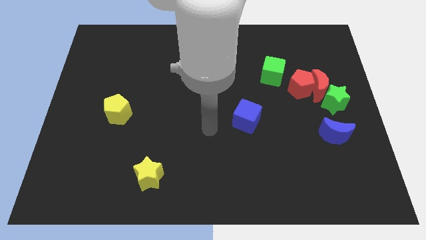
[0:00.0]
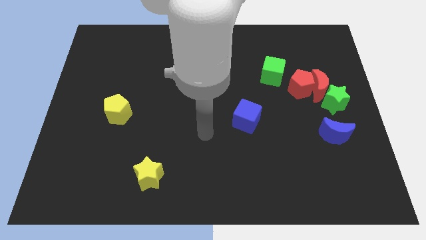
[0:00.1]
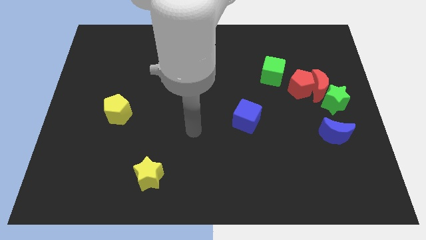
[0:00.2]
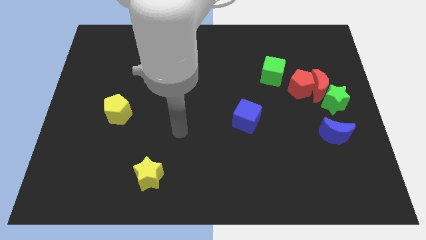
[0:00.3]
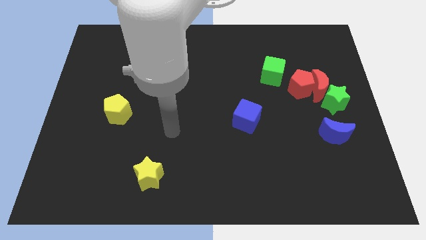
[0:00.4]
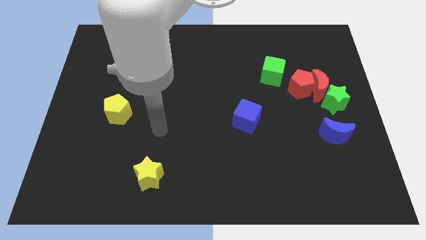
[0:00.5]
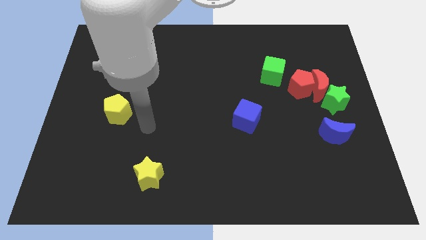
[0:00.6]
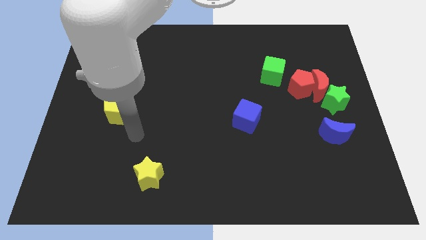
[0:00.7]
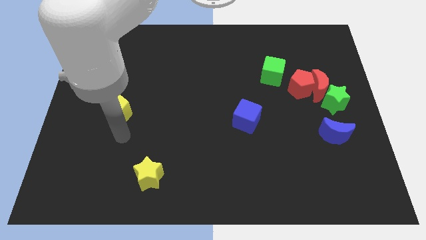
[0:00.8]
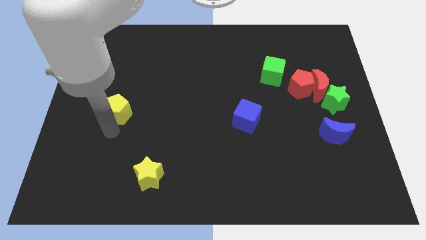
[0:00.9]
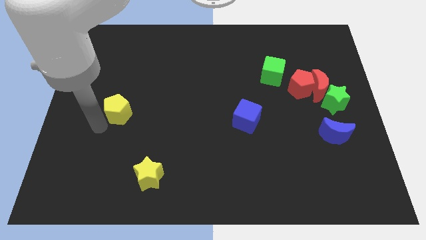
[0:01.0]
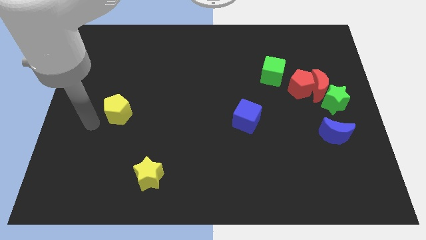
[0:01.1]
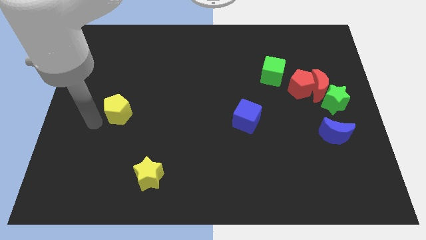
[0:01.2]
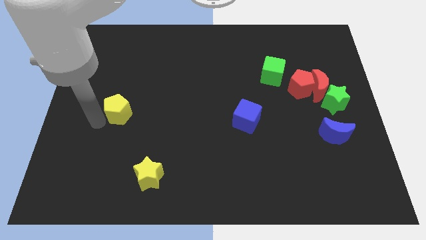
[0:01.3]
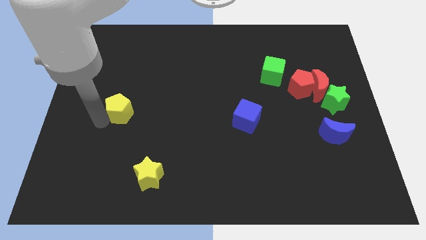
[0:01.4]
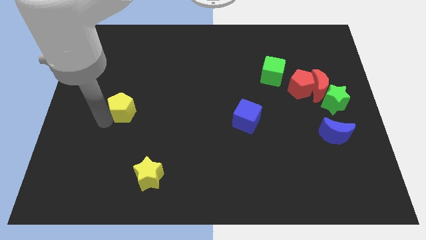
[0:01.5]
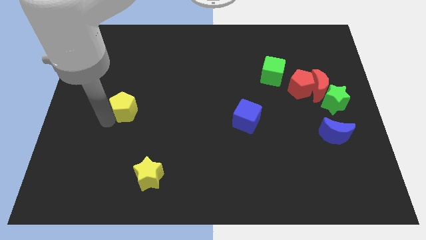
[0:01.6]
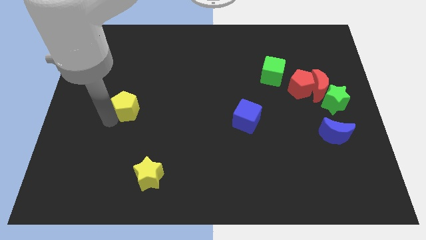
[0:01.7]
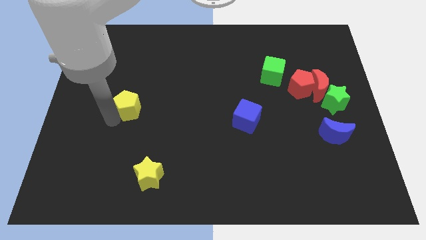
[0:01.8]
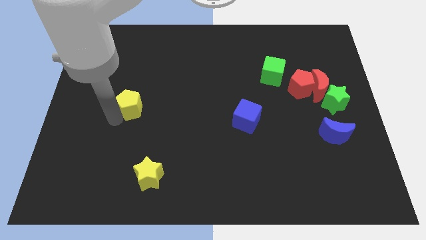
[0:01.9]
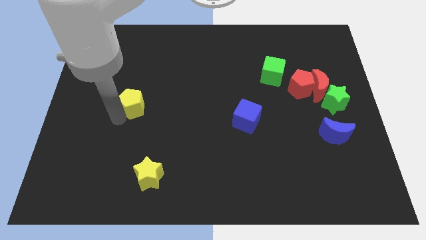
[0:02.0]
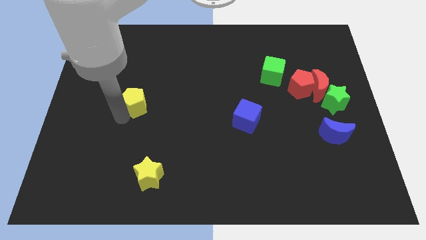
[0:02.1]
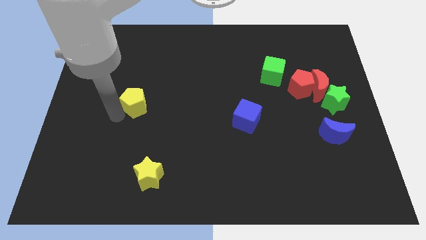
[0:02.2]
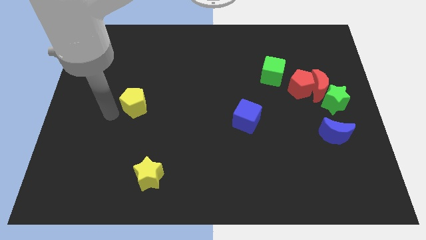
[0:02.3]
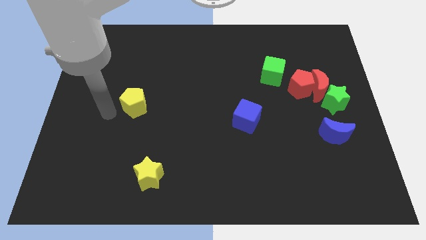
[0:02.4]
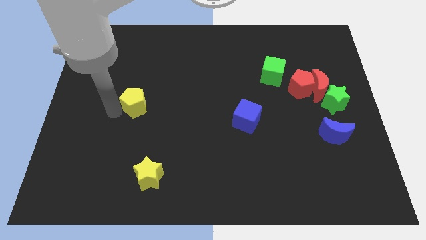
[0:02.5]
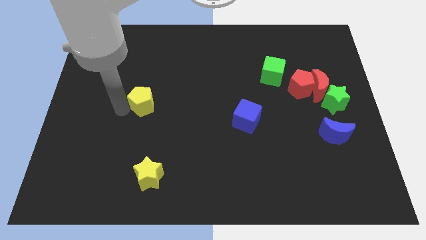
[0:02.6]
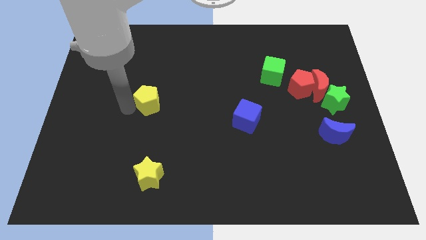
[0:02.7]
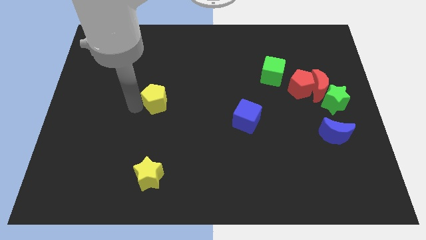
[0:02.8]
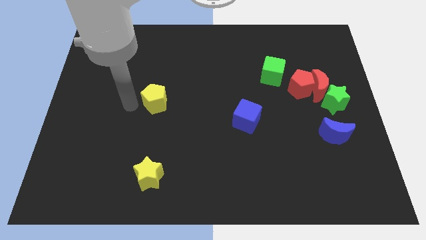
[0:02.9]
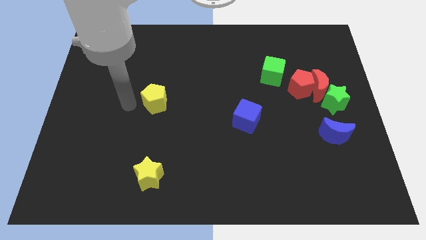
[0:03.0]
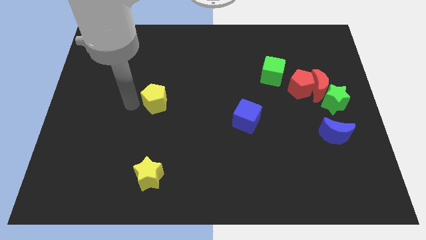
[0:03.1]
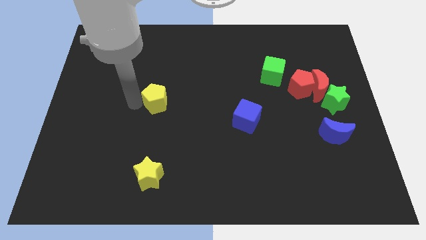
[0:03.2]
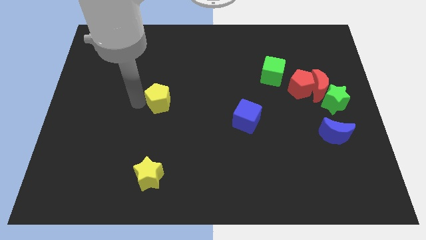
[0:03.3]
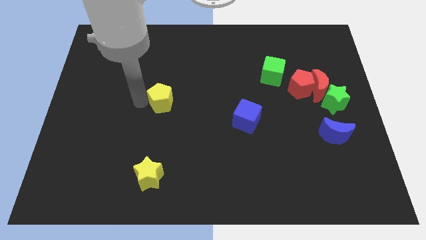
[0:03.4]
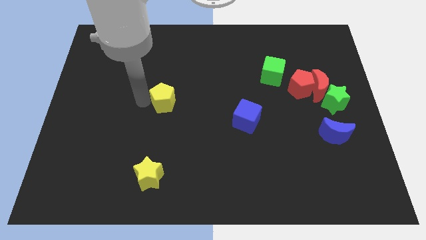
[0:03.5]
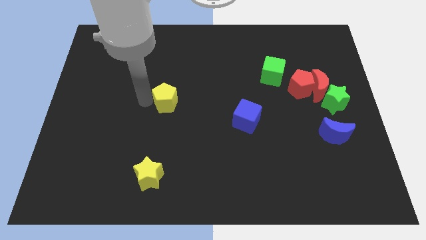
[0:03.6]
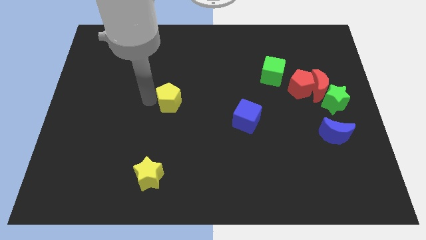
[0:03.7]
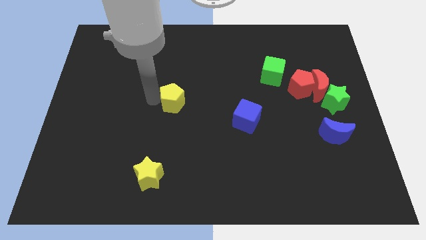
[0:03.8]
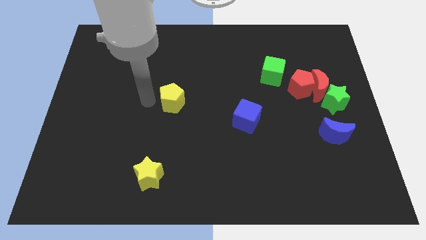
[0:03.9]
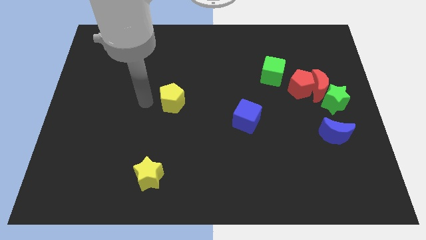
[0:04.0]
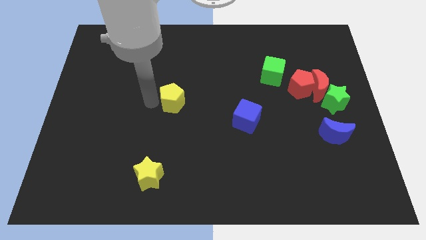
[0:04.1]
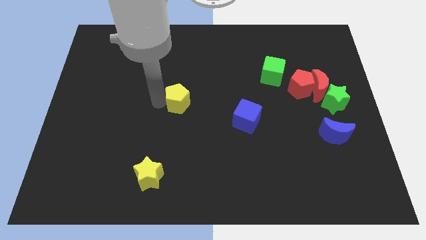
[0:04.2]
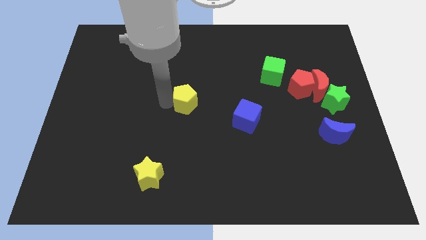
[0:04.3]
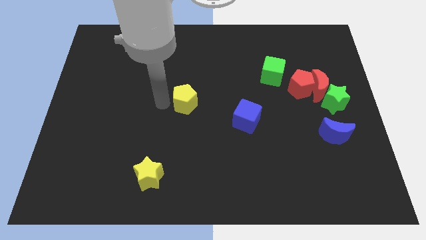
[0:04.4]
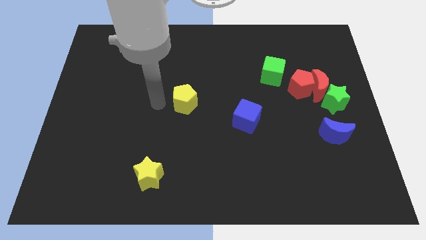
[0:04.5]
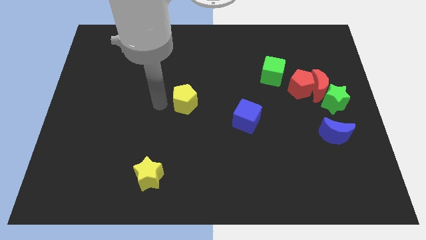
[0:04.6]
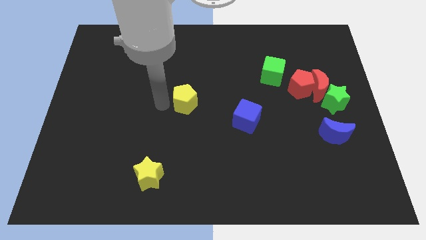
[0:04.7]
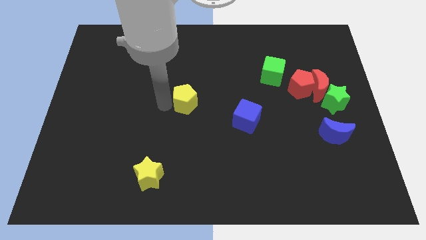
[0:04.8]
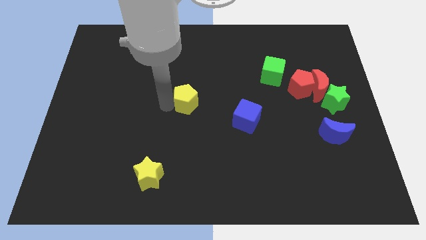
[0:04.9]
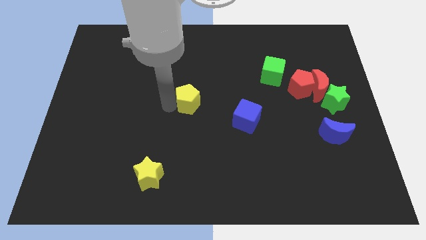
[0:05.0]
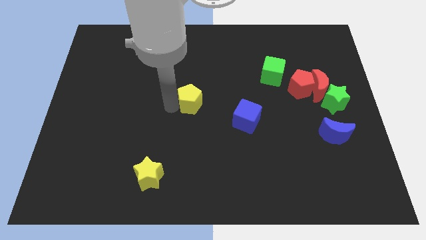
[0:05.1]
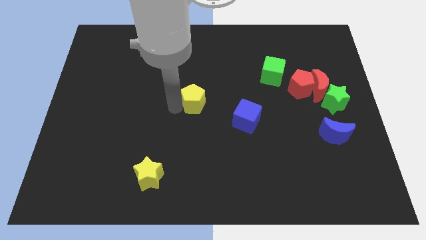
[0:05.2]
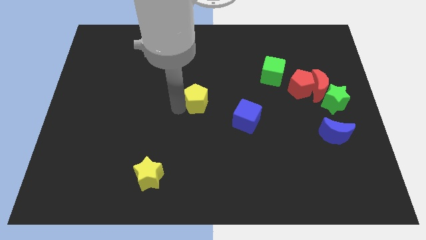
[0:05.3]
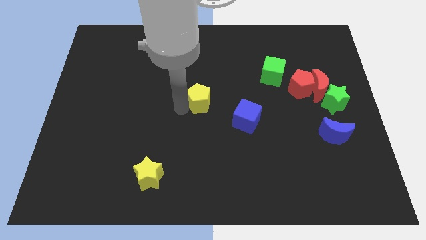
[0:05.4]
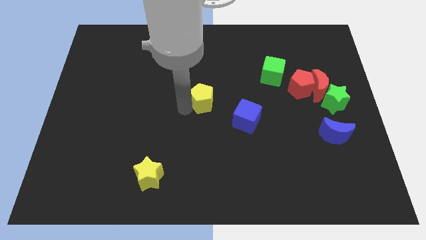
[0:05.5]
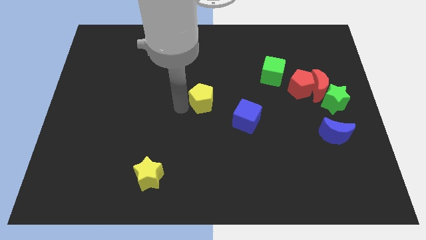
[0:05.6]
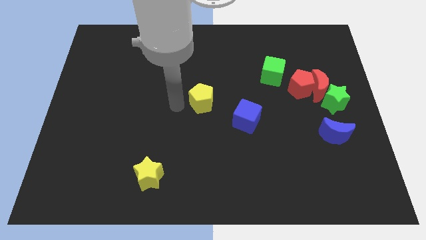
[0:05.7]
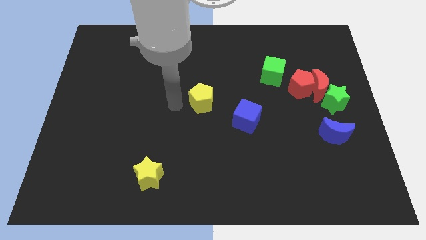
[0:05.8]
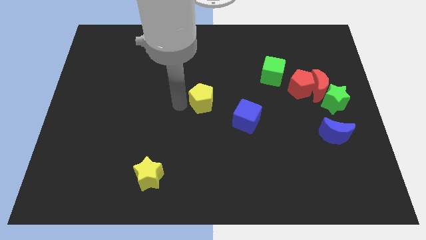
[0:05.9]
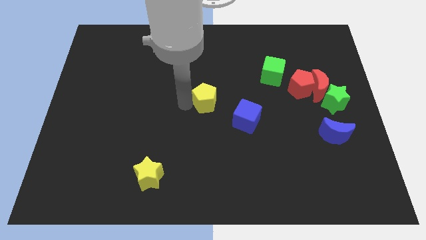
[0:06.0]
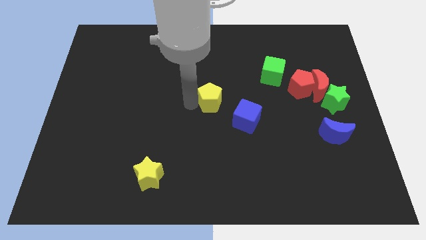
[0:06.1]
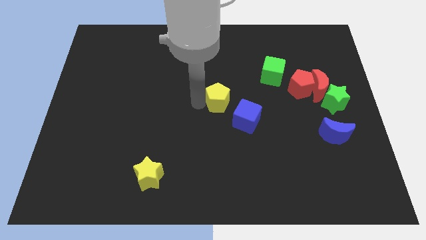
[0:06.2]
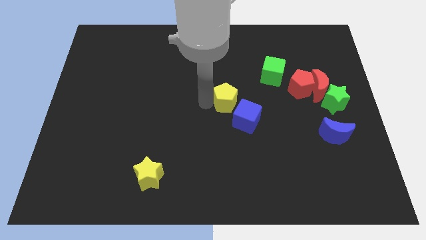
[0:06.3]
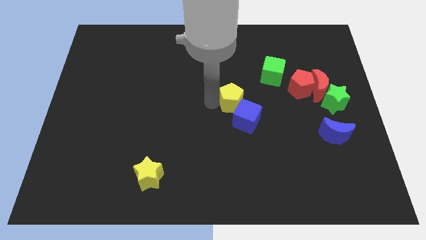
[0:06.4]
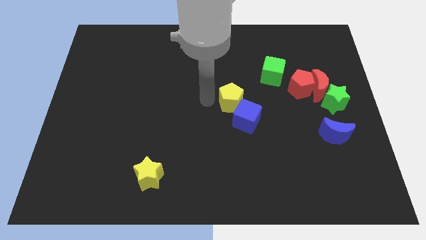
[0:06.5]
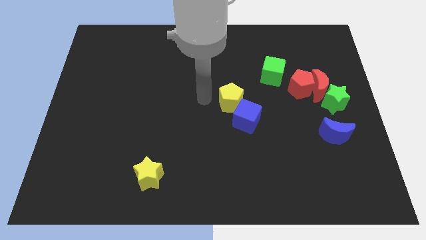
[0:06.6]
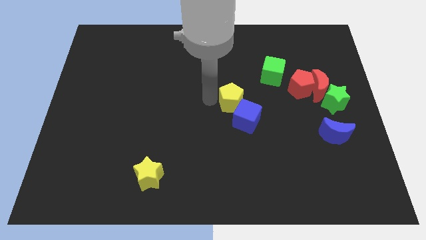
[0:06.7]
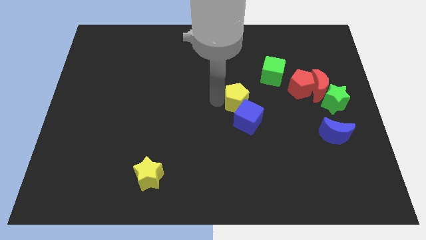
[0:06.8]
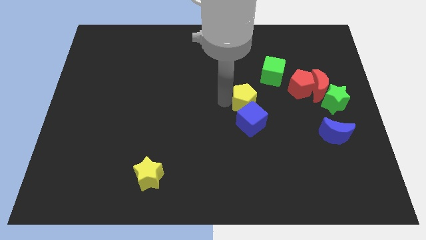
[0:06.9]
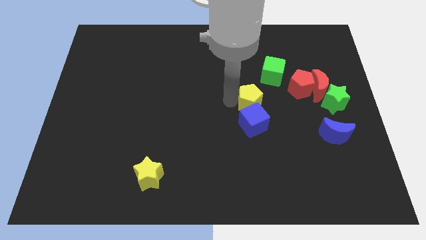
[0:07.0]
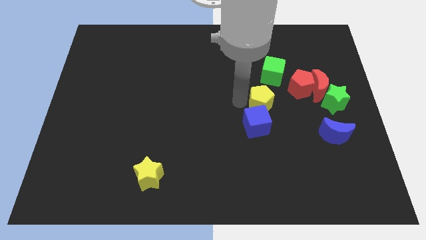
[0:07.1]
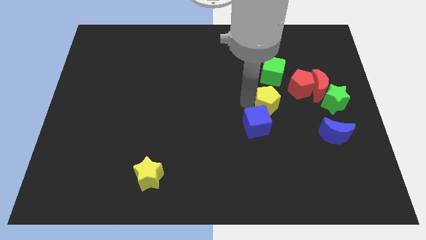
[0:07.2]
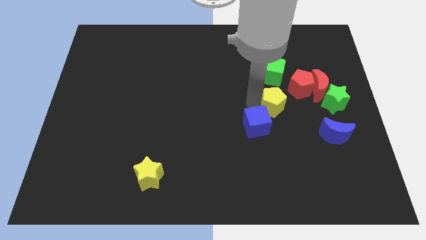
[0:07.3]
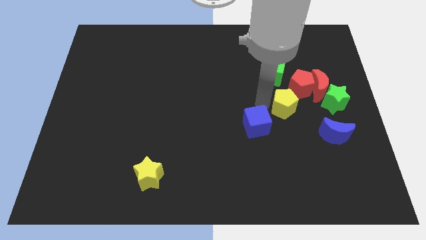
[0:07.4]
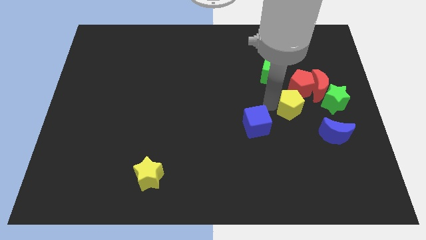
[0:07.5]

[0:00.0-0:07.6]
slide the yellow pentagon to the top left of the blue moon
